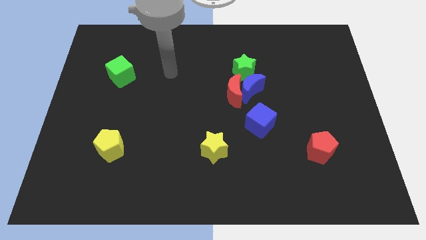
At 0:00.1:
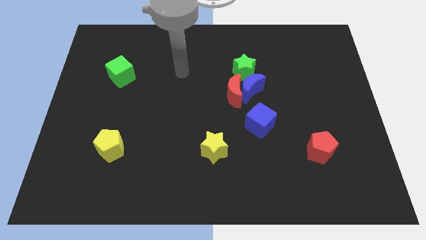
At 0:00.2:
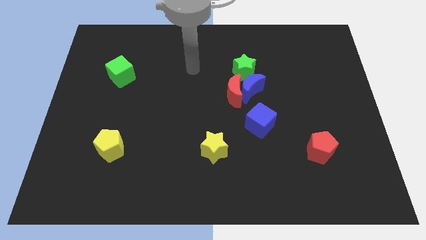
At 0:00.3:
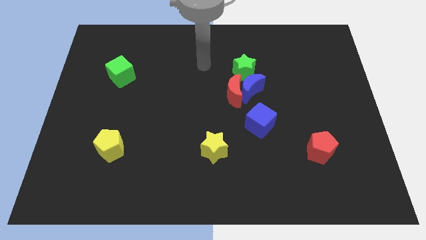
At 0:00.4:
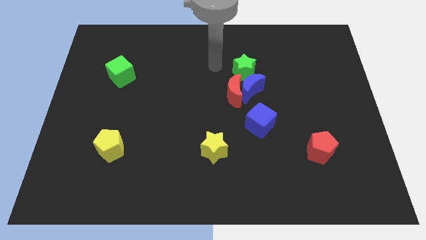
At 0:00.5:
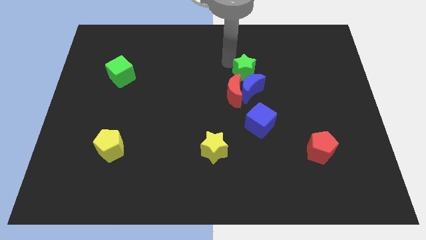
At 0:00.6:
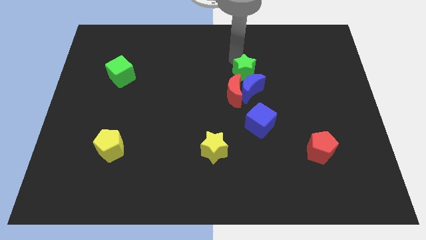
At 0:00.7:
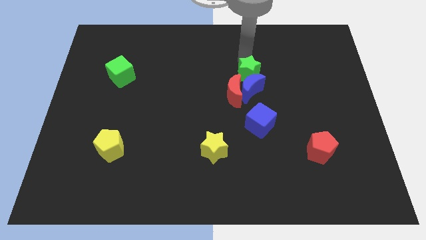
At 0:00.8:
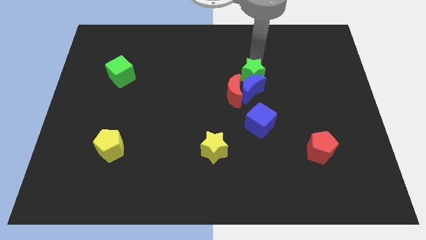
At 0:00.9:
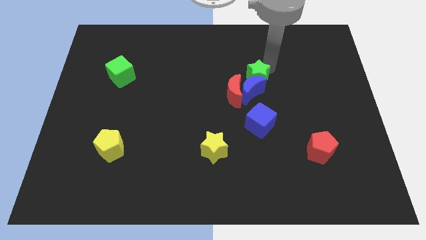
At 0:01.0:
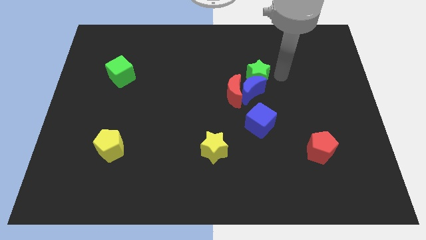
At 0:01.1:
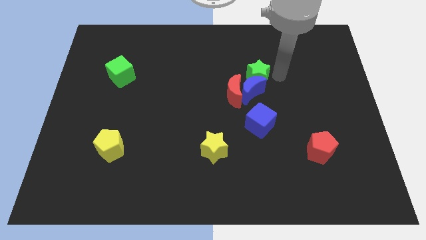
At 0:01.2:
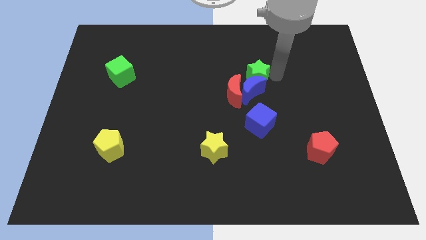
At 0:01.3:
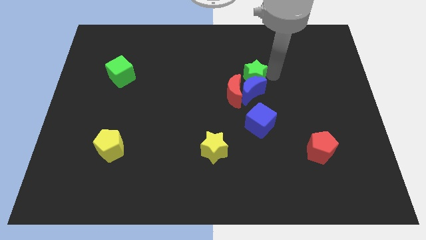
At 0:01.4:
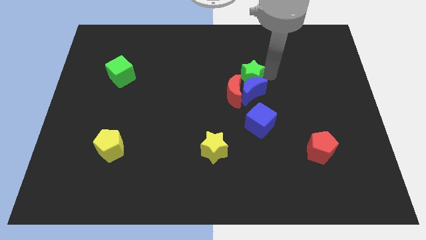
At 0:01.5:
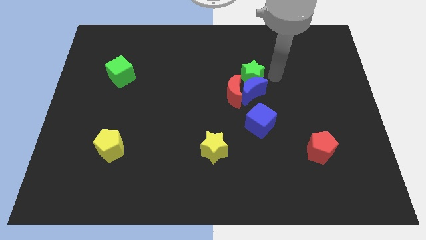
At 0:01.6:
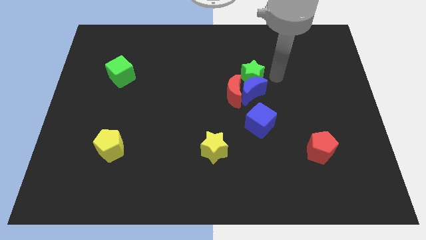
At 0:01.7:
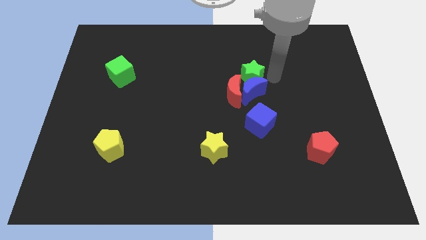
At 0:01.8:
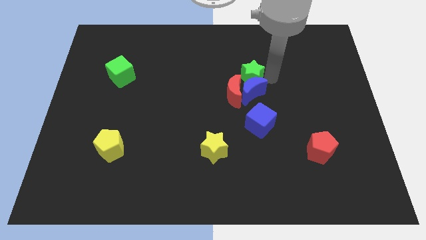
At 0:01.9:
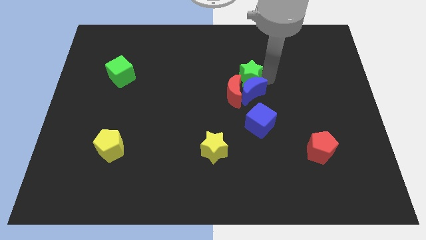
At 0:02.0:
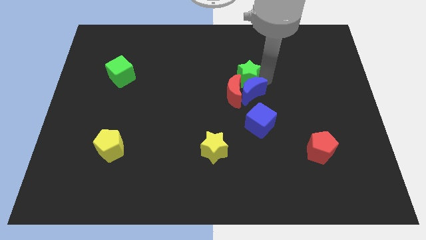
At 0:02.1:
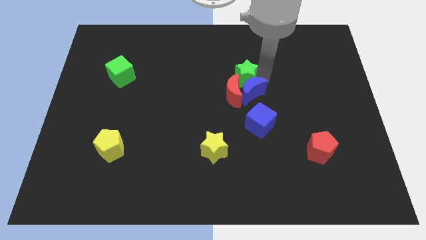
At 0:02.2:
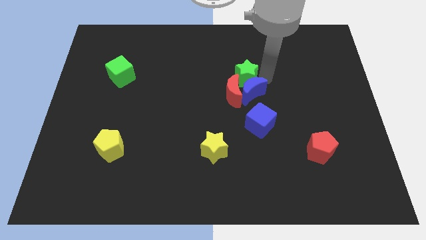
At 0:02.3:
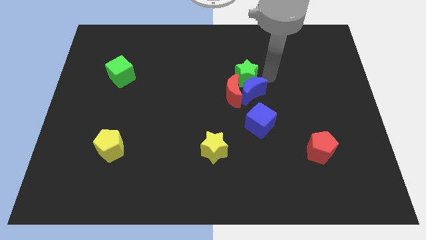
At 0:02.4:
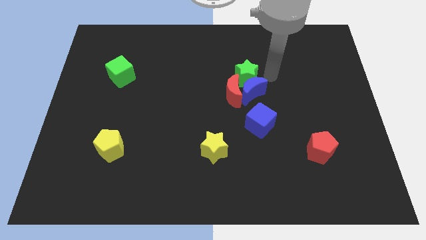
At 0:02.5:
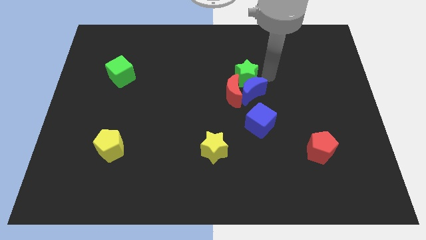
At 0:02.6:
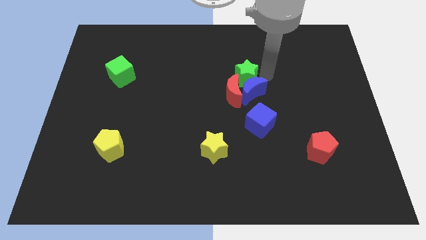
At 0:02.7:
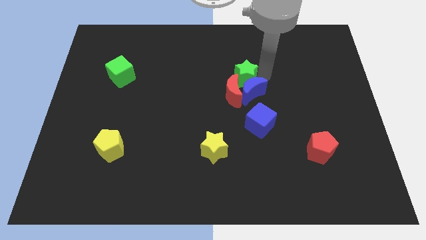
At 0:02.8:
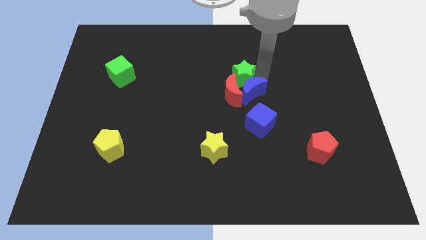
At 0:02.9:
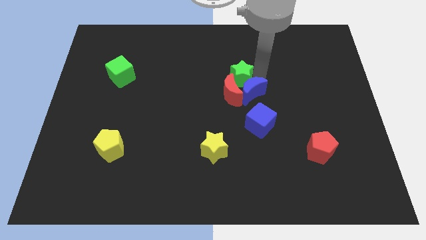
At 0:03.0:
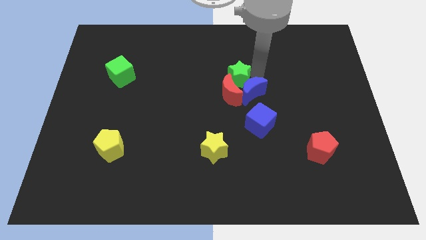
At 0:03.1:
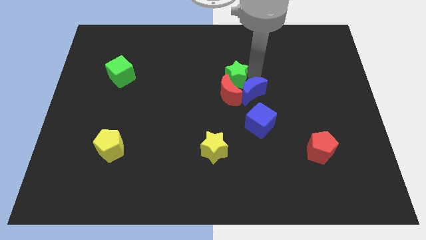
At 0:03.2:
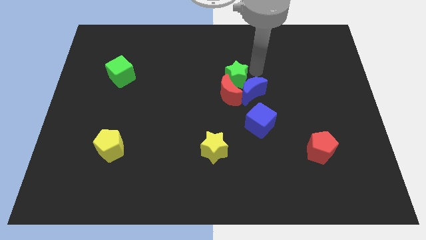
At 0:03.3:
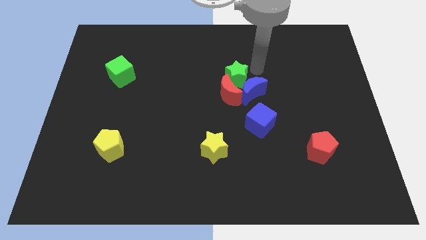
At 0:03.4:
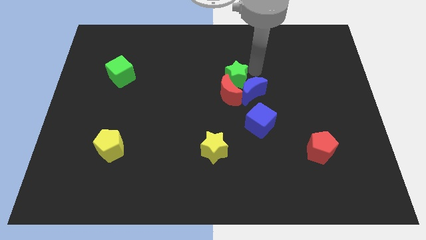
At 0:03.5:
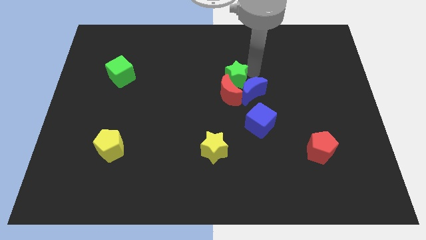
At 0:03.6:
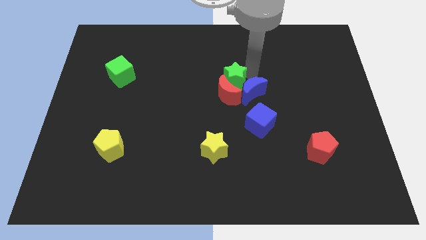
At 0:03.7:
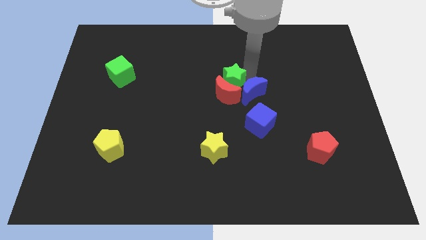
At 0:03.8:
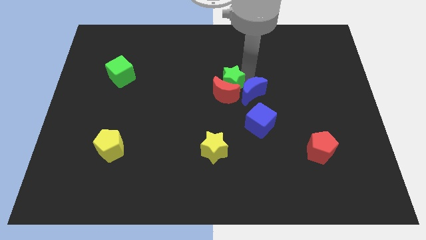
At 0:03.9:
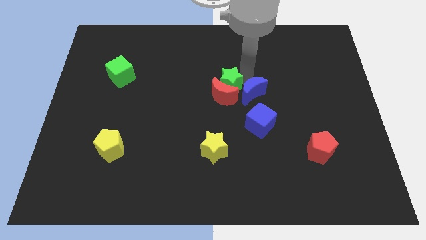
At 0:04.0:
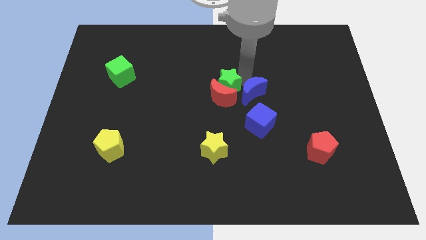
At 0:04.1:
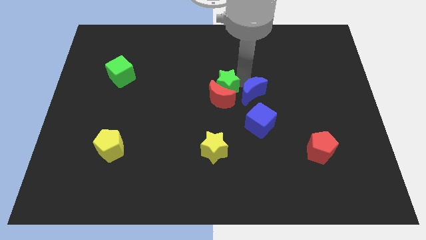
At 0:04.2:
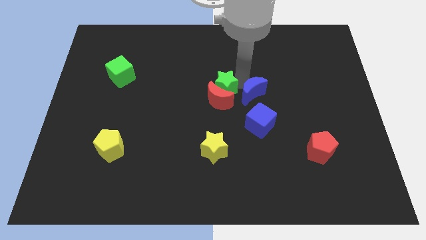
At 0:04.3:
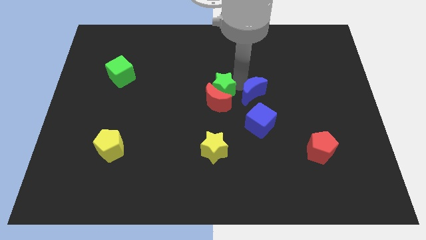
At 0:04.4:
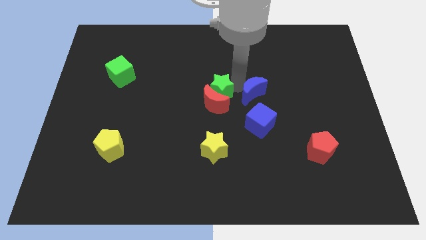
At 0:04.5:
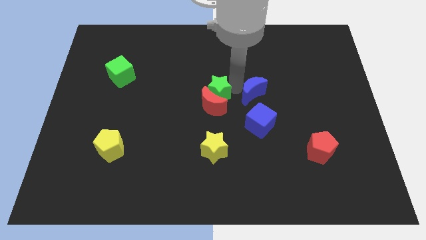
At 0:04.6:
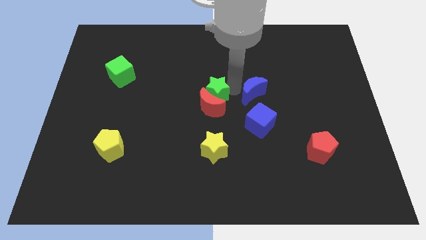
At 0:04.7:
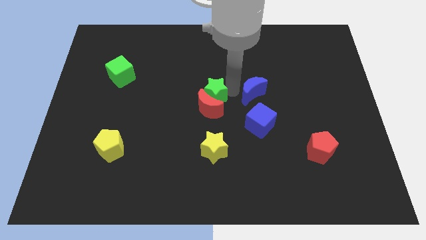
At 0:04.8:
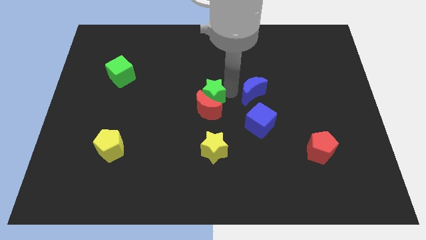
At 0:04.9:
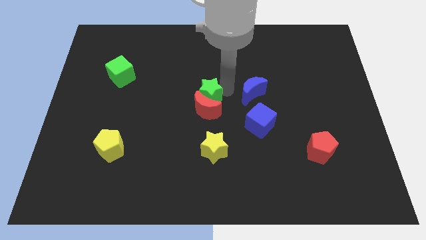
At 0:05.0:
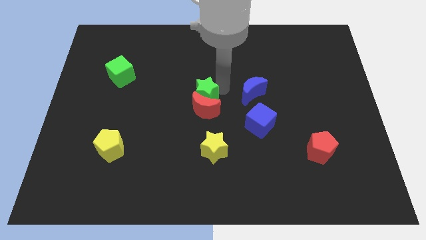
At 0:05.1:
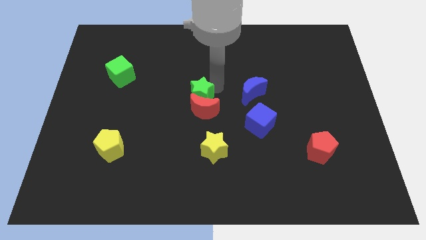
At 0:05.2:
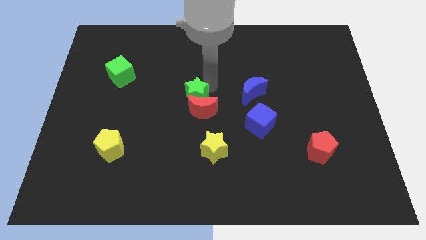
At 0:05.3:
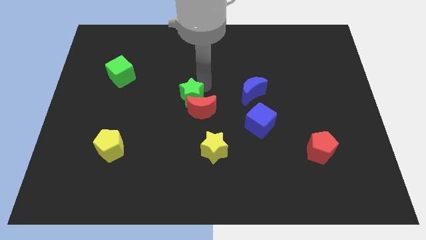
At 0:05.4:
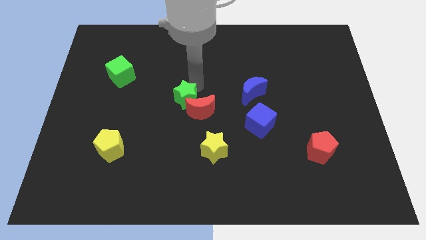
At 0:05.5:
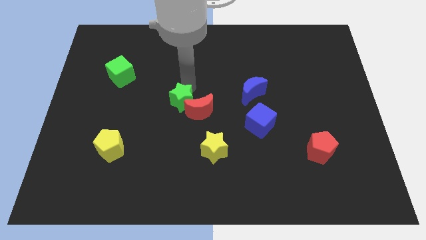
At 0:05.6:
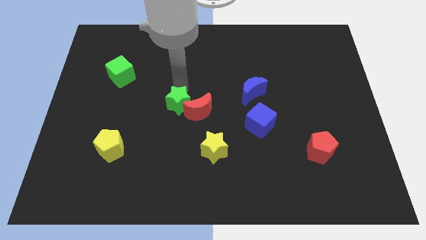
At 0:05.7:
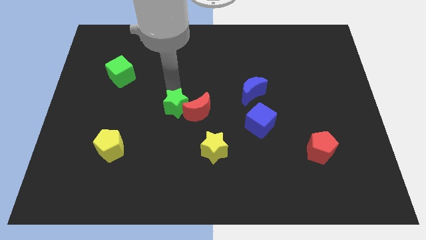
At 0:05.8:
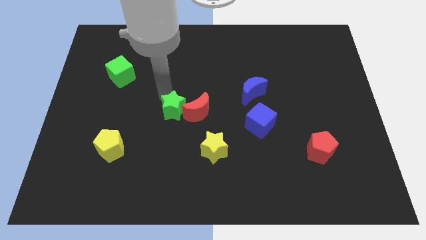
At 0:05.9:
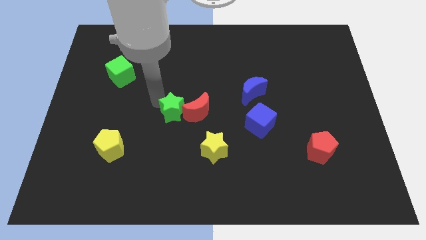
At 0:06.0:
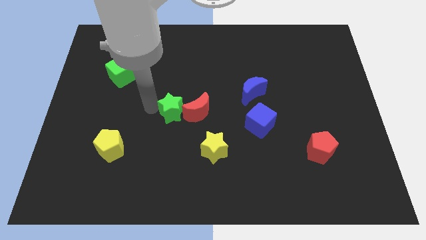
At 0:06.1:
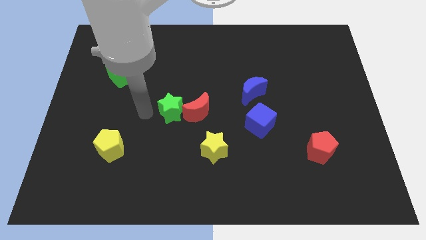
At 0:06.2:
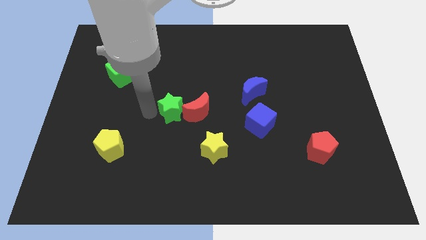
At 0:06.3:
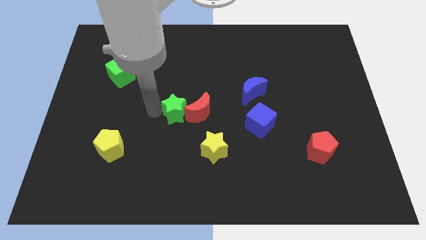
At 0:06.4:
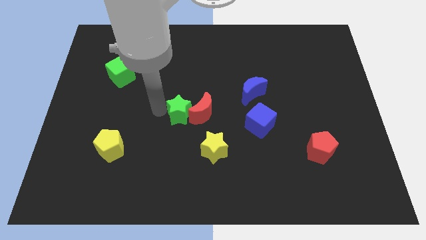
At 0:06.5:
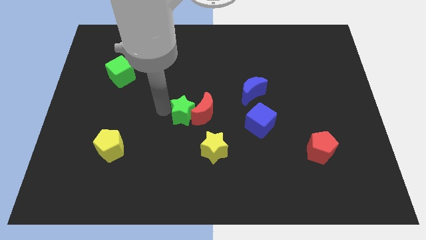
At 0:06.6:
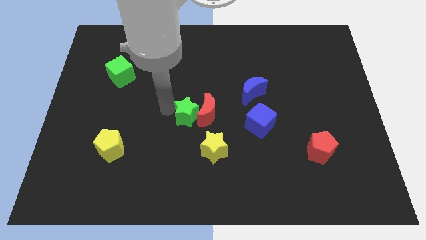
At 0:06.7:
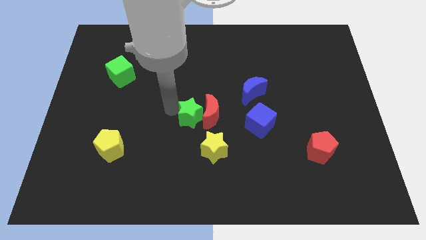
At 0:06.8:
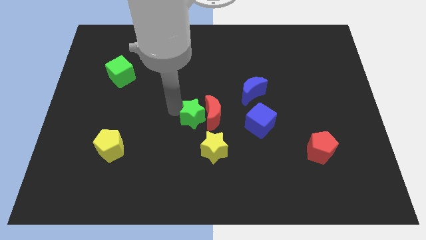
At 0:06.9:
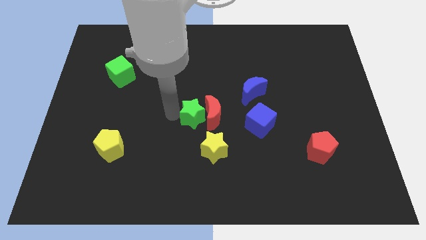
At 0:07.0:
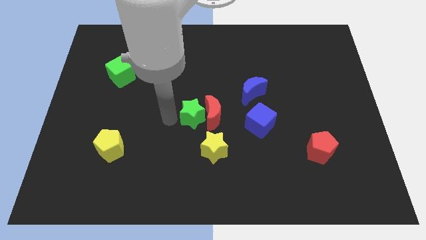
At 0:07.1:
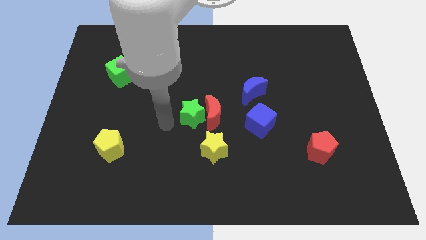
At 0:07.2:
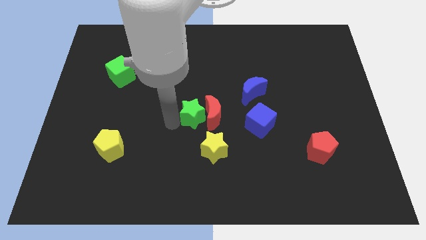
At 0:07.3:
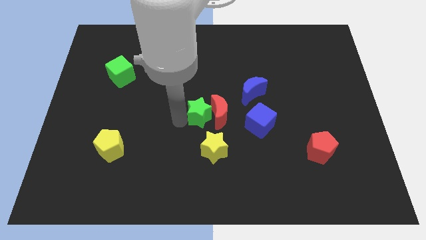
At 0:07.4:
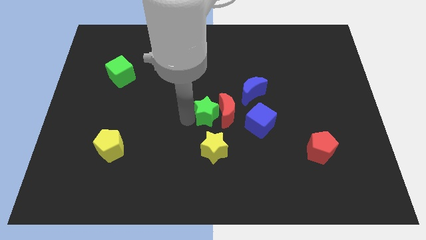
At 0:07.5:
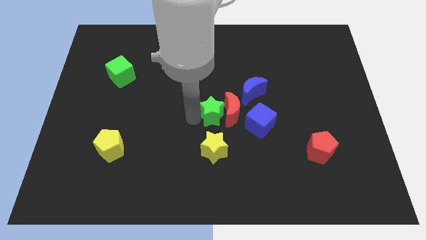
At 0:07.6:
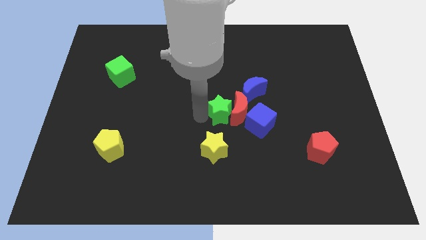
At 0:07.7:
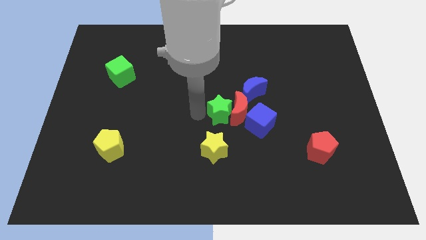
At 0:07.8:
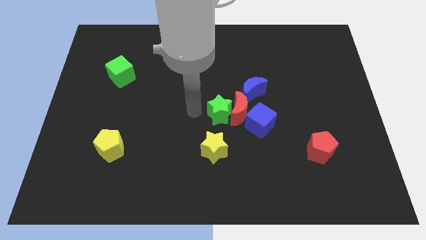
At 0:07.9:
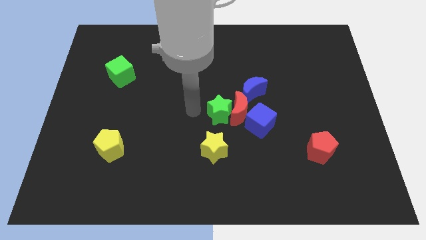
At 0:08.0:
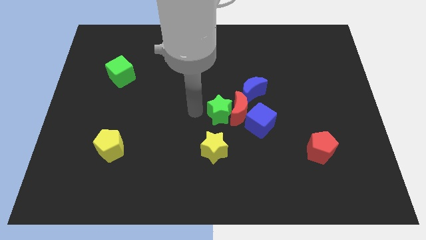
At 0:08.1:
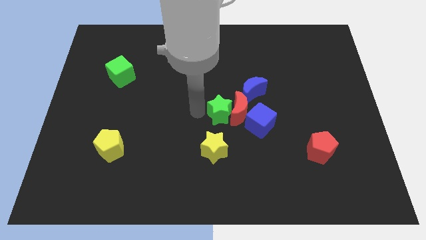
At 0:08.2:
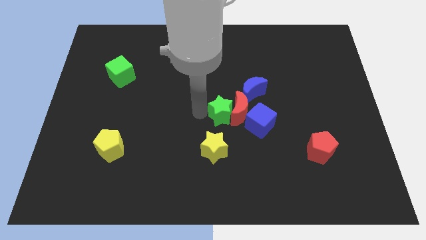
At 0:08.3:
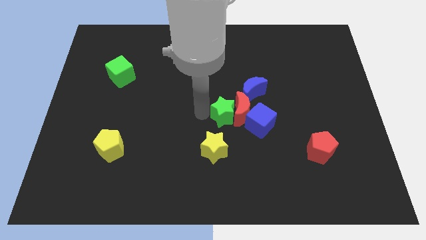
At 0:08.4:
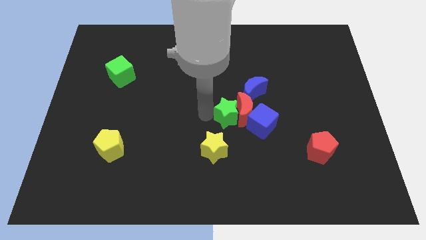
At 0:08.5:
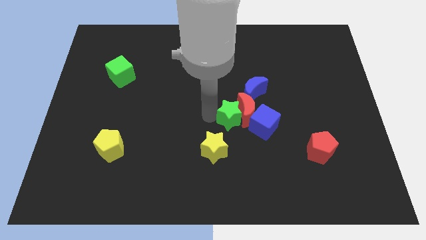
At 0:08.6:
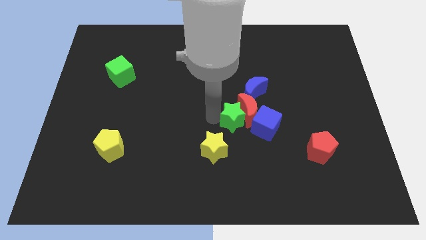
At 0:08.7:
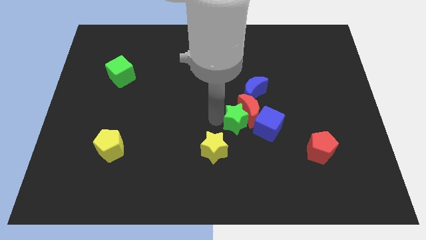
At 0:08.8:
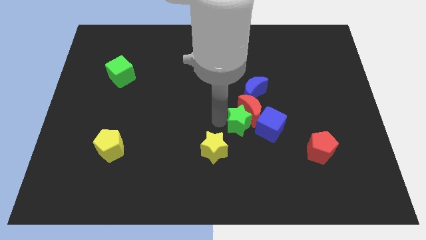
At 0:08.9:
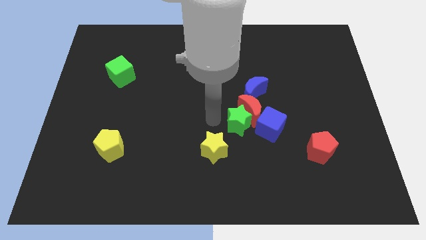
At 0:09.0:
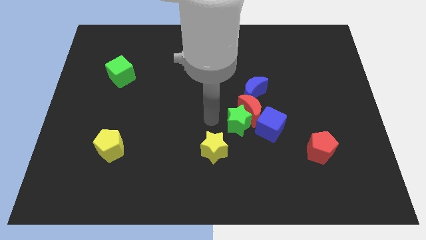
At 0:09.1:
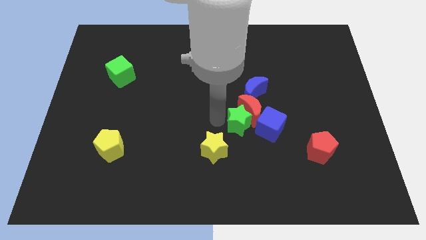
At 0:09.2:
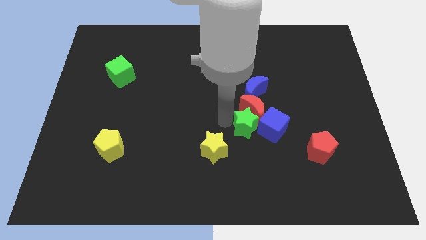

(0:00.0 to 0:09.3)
move the green star next to the blue cube
